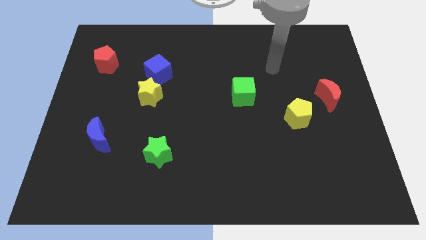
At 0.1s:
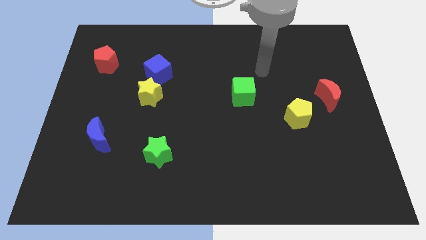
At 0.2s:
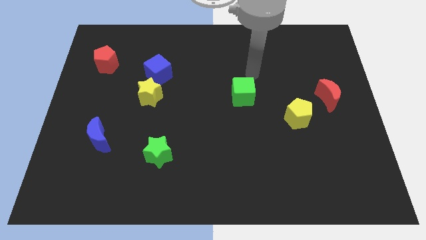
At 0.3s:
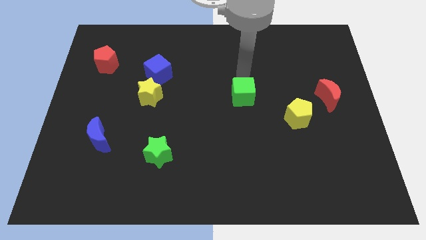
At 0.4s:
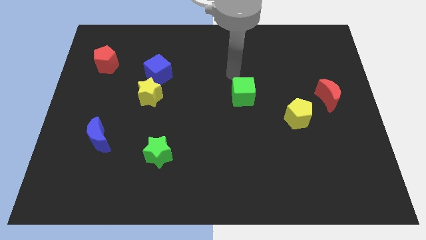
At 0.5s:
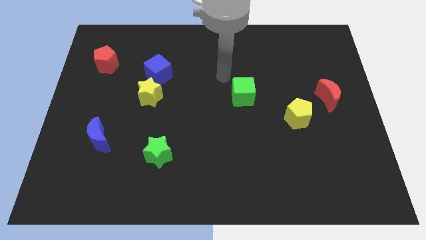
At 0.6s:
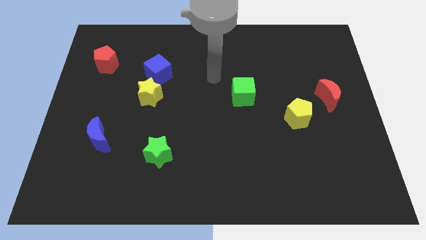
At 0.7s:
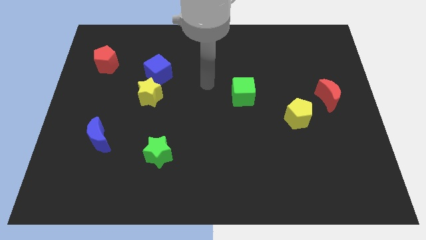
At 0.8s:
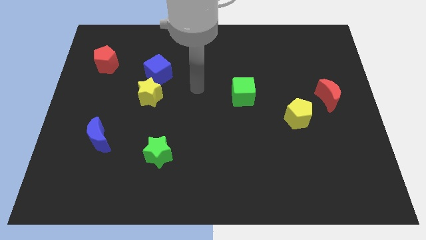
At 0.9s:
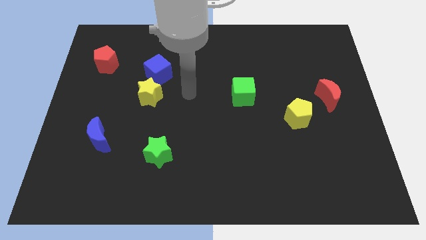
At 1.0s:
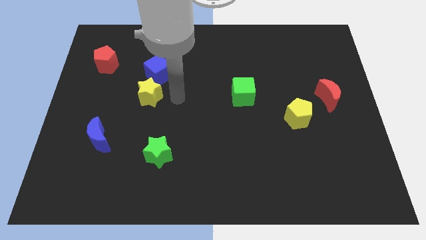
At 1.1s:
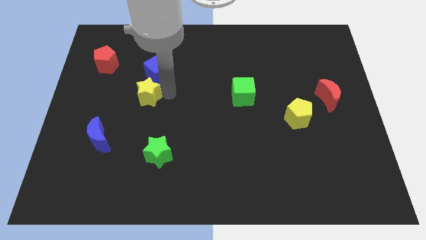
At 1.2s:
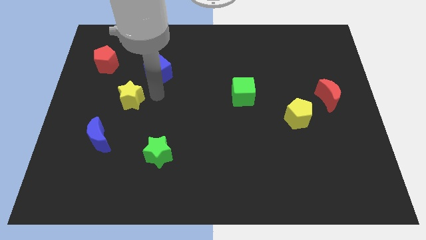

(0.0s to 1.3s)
pull the blue cube apart from the yellow star

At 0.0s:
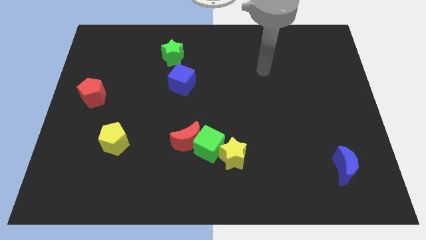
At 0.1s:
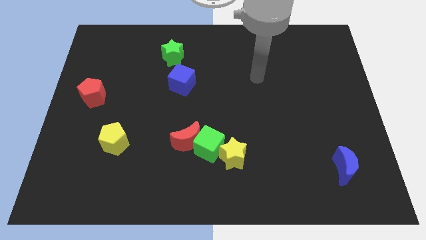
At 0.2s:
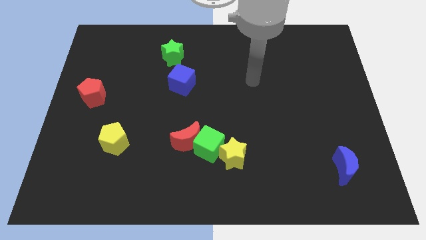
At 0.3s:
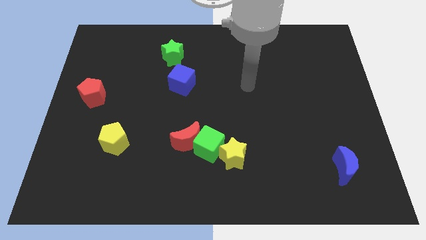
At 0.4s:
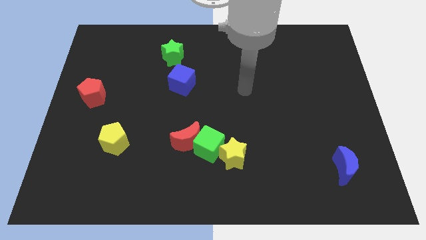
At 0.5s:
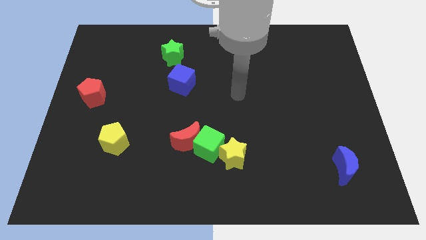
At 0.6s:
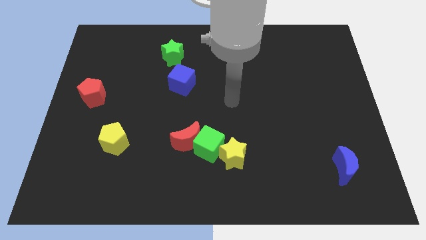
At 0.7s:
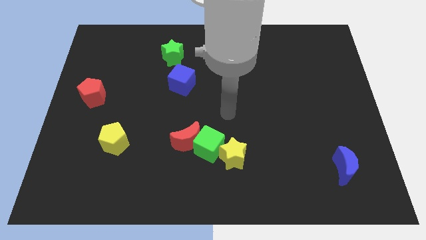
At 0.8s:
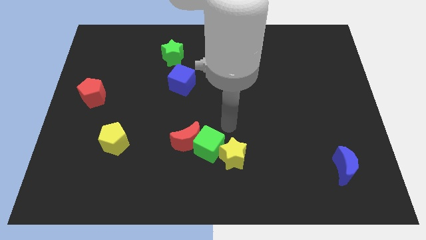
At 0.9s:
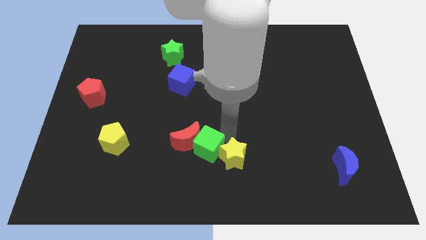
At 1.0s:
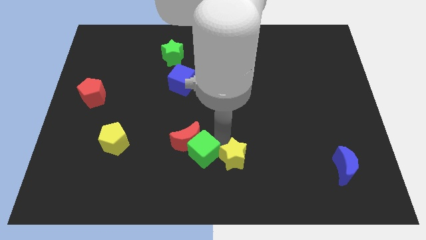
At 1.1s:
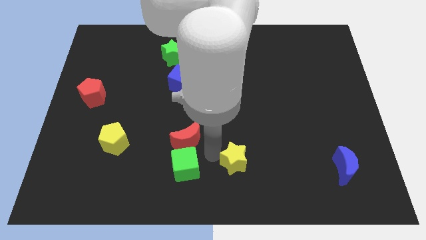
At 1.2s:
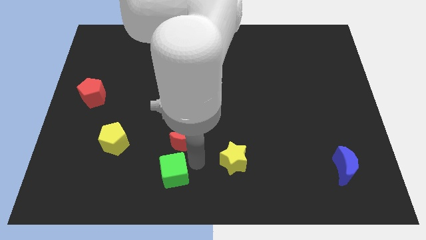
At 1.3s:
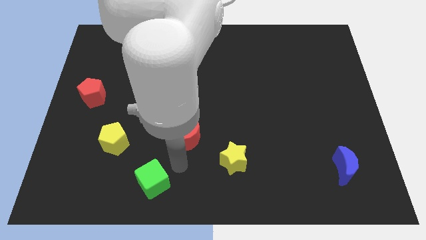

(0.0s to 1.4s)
separate the red moon from the green cube

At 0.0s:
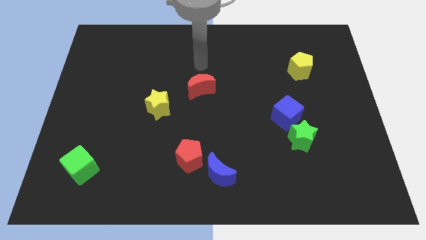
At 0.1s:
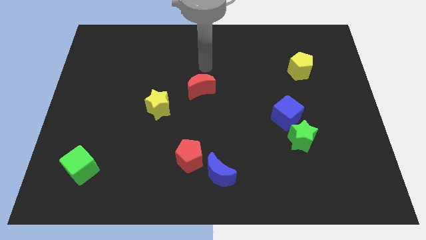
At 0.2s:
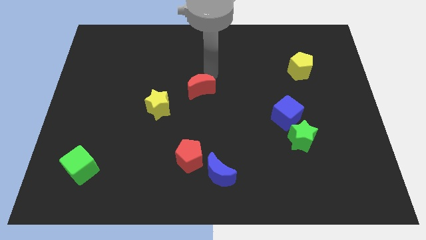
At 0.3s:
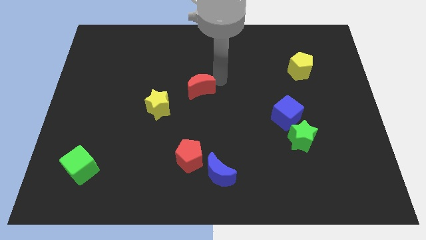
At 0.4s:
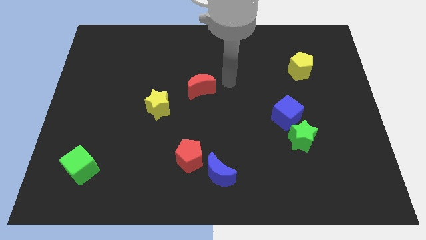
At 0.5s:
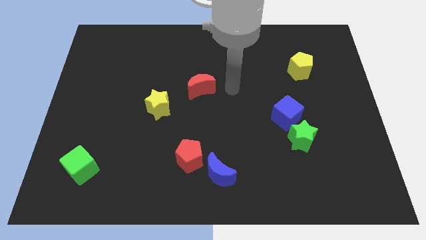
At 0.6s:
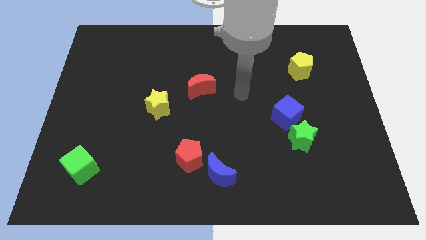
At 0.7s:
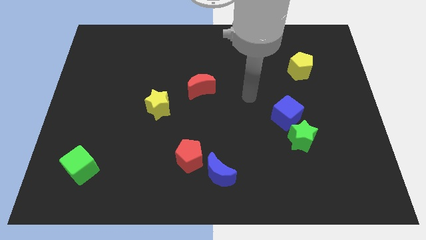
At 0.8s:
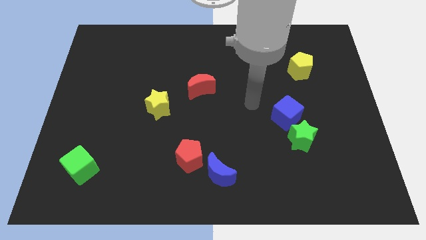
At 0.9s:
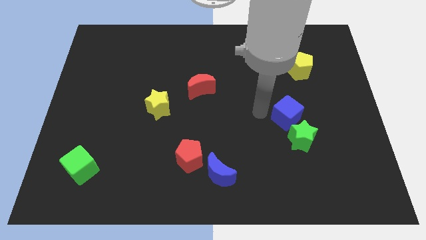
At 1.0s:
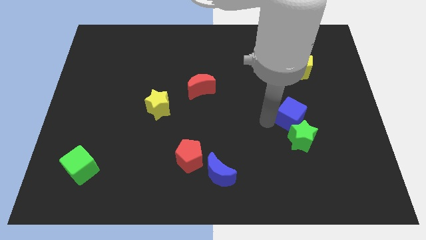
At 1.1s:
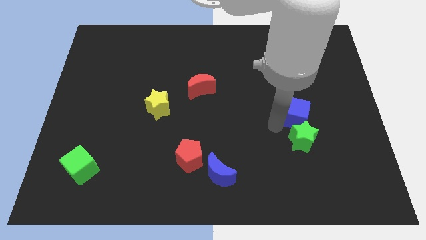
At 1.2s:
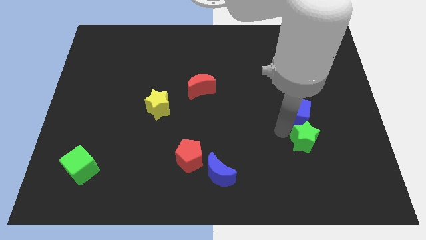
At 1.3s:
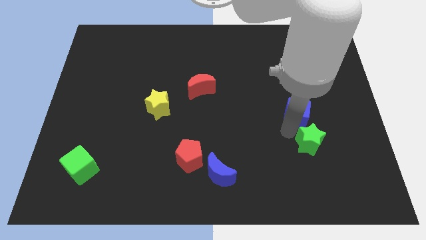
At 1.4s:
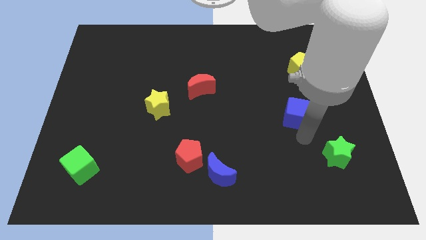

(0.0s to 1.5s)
separate the blue cube from the green star

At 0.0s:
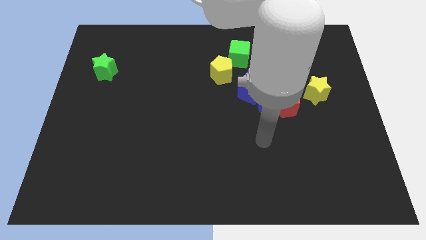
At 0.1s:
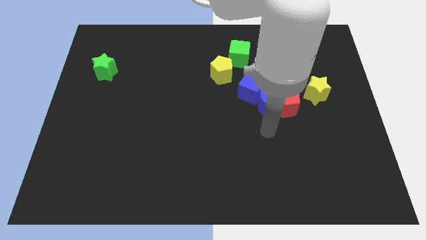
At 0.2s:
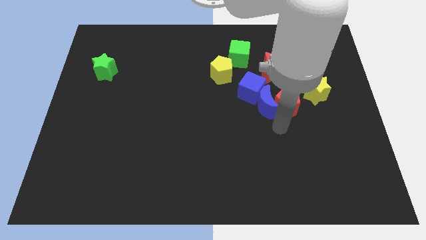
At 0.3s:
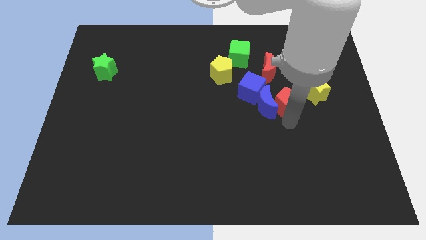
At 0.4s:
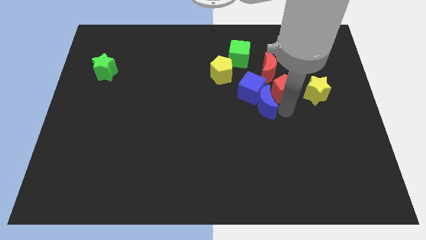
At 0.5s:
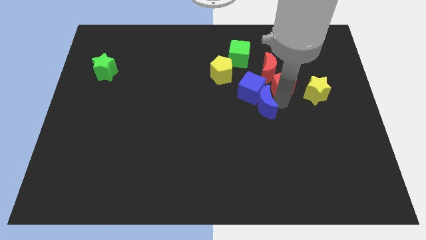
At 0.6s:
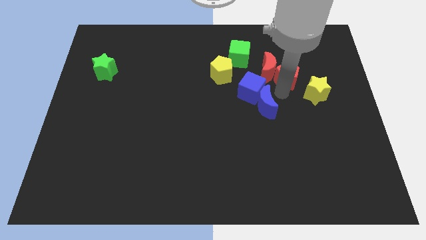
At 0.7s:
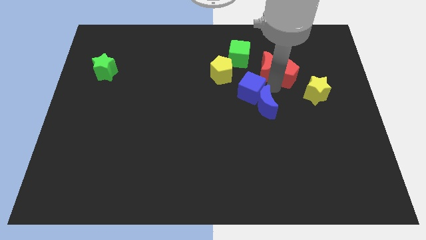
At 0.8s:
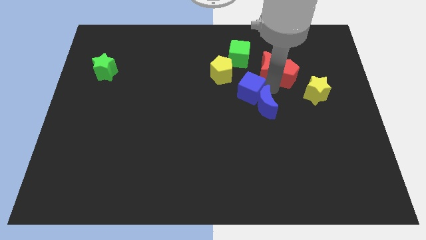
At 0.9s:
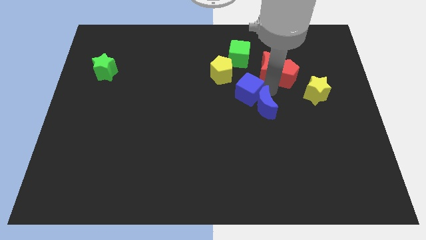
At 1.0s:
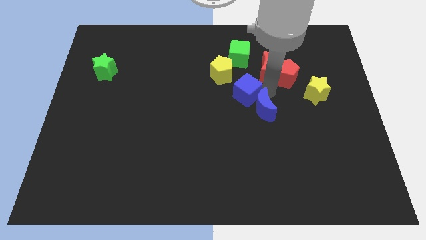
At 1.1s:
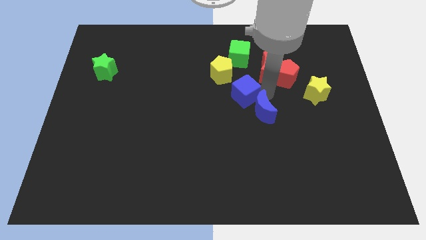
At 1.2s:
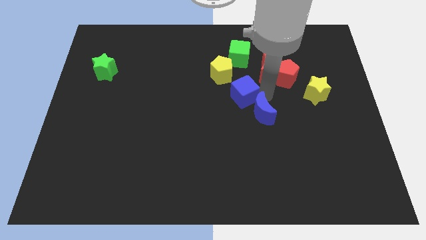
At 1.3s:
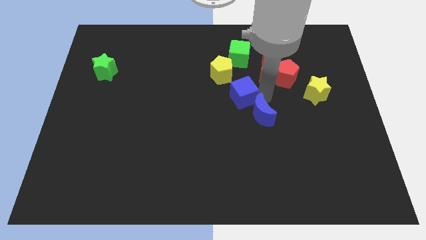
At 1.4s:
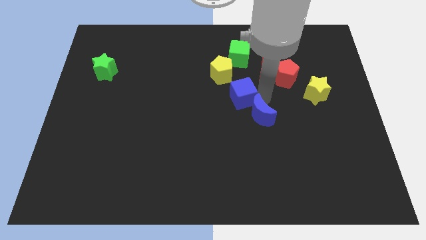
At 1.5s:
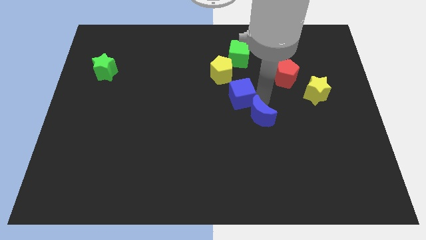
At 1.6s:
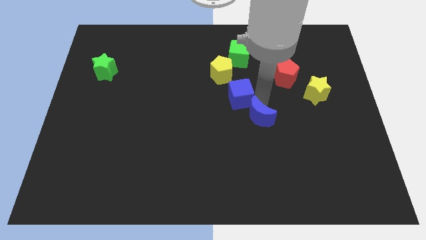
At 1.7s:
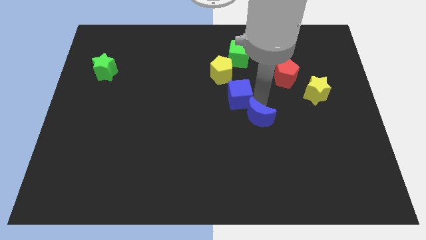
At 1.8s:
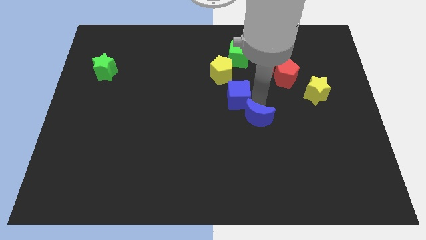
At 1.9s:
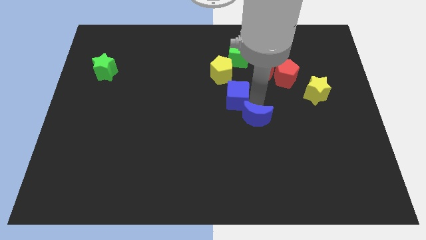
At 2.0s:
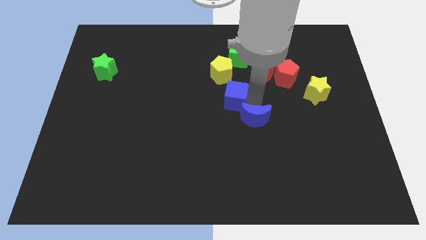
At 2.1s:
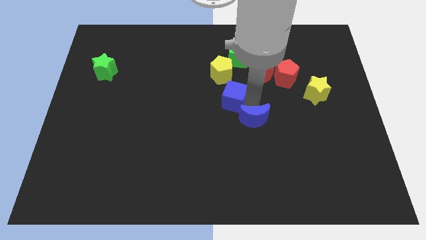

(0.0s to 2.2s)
move the blue moon away from the red pentagon and blue cube

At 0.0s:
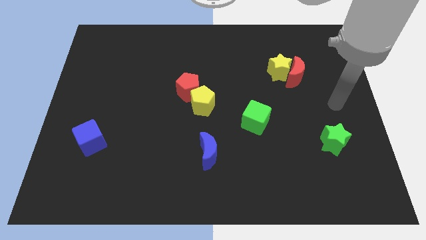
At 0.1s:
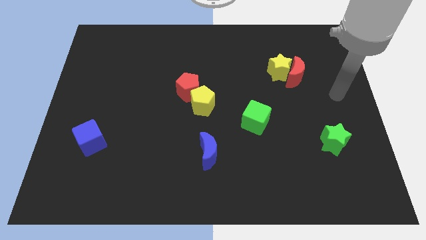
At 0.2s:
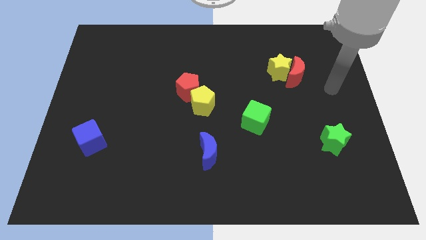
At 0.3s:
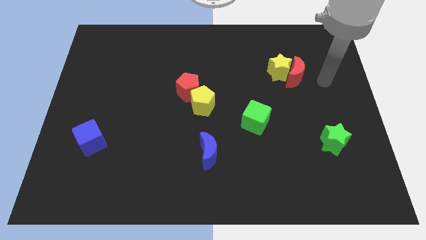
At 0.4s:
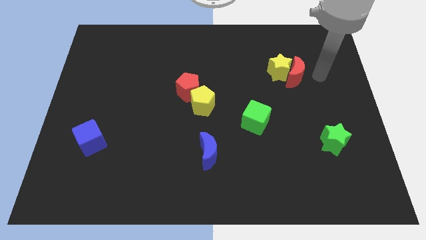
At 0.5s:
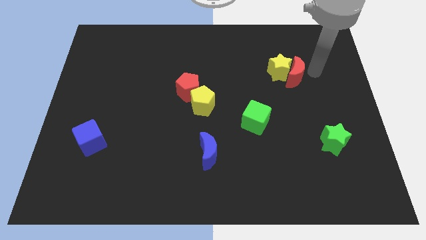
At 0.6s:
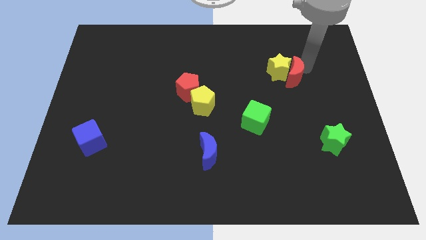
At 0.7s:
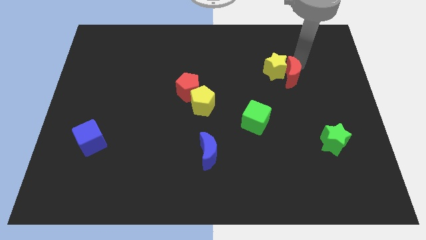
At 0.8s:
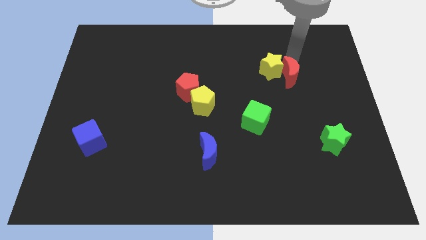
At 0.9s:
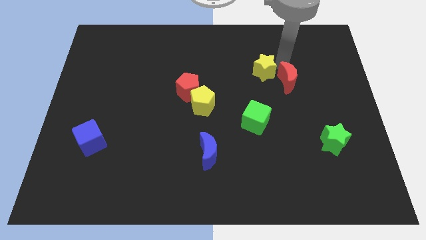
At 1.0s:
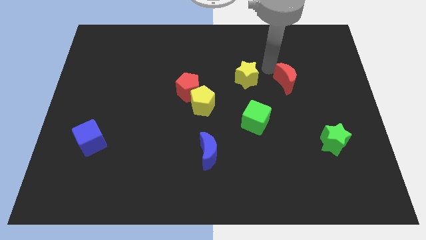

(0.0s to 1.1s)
separate the red moon from the yellow star

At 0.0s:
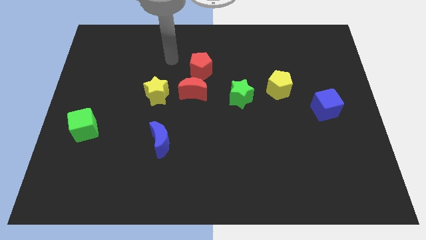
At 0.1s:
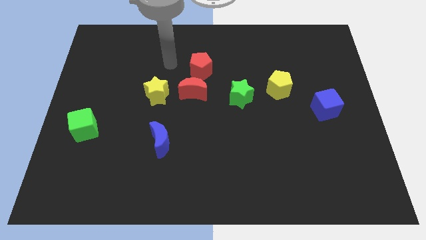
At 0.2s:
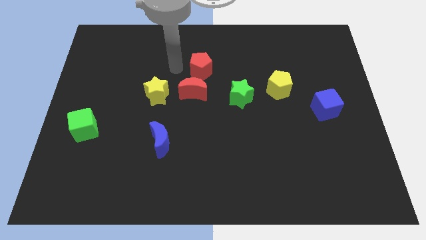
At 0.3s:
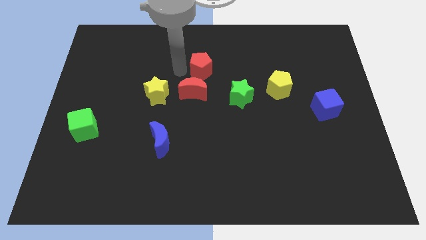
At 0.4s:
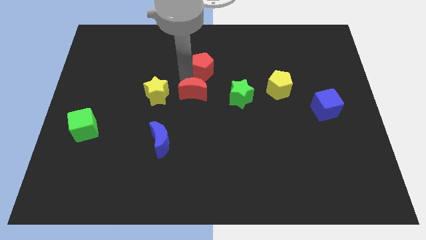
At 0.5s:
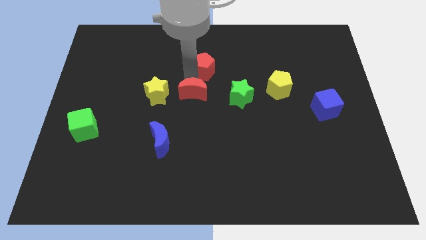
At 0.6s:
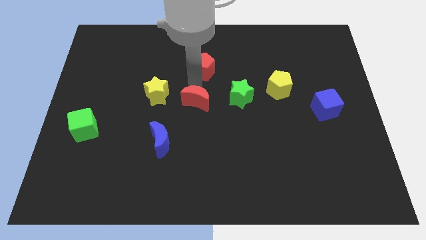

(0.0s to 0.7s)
move the red pentagon away from the red moon

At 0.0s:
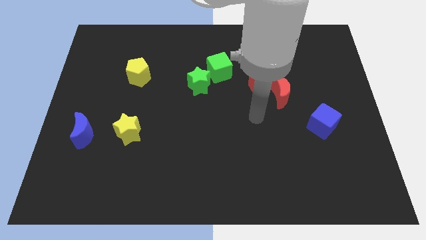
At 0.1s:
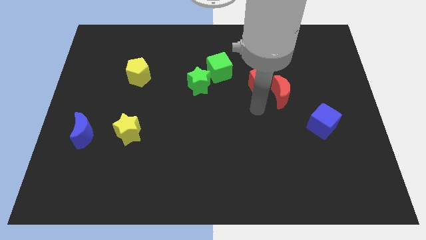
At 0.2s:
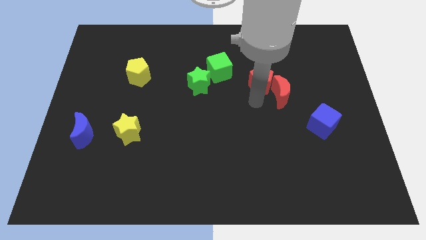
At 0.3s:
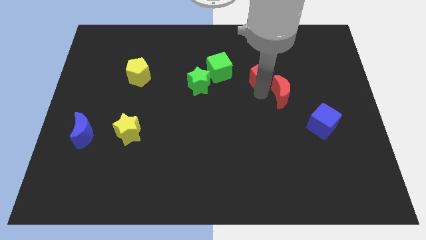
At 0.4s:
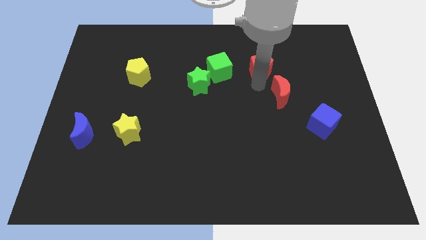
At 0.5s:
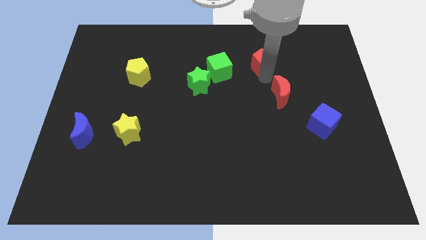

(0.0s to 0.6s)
pull the red moon apart from the red pentagon

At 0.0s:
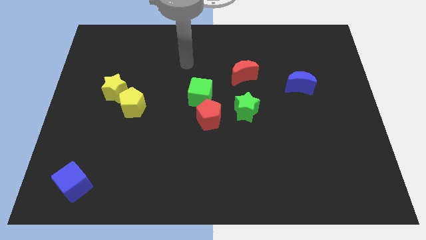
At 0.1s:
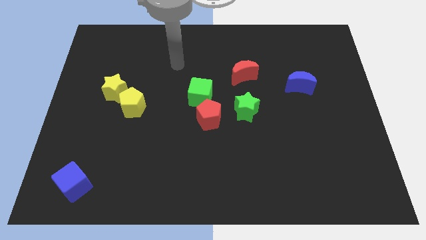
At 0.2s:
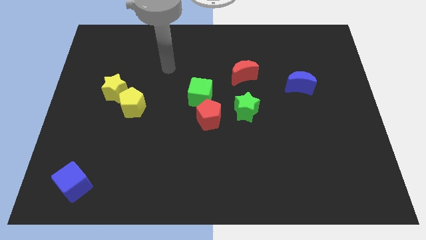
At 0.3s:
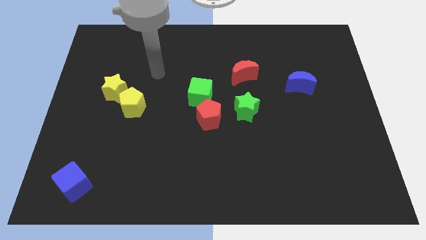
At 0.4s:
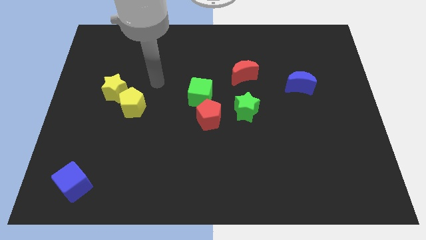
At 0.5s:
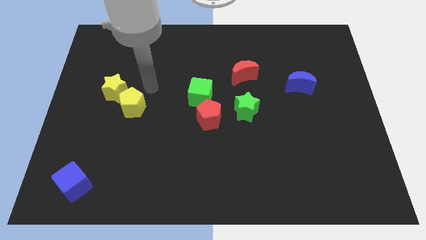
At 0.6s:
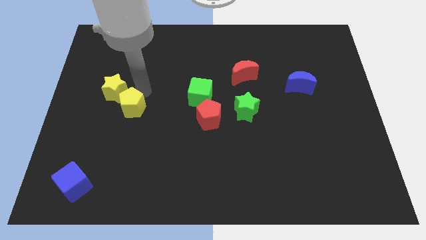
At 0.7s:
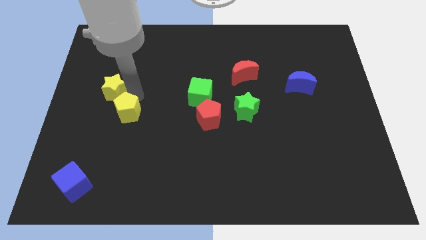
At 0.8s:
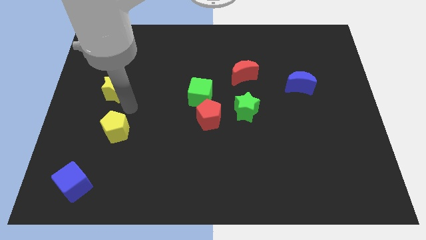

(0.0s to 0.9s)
pull the yellow star apart from the yellow pentagon
